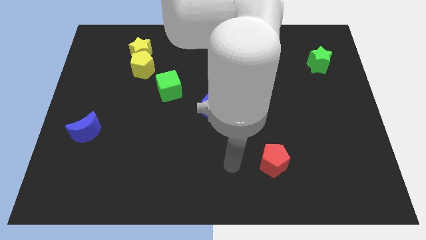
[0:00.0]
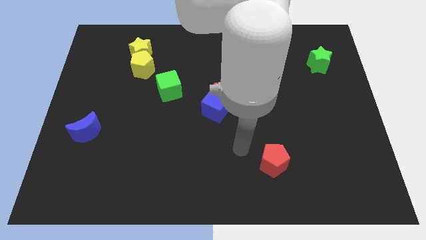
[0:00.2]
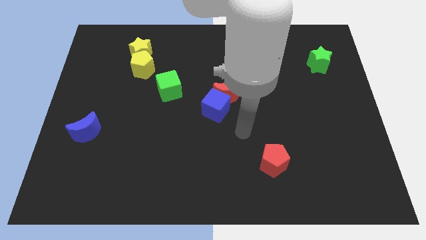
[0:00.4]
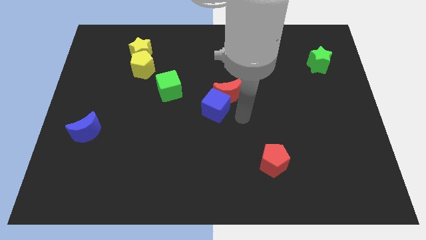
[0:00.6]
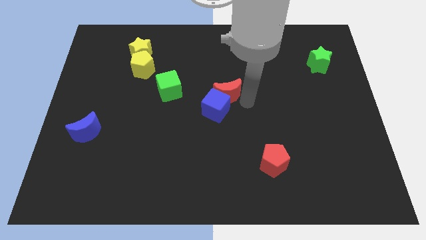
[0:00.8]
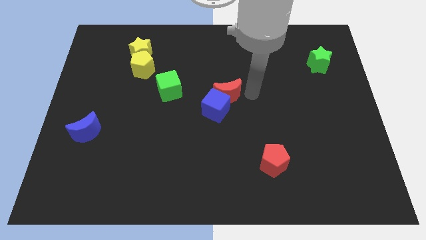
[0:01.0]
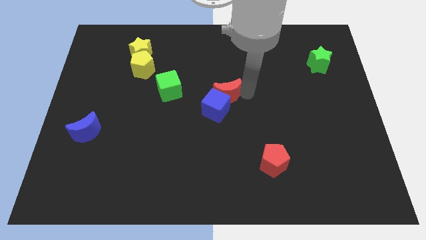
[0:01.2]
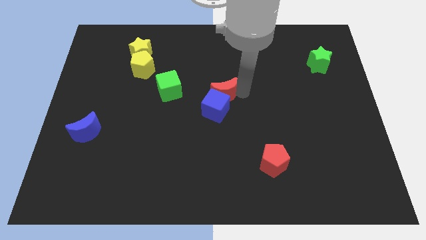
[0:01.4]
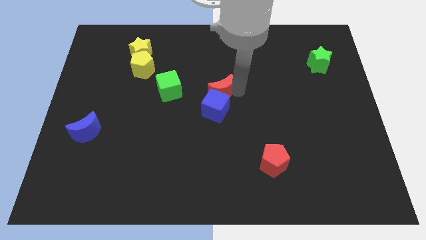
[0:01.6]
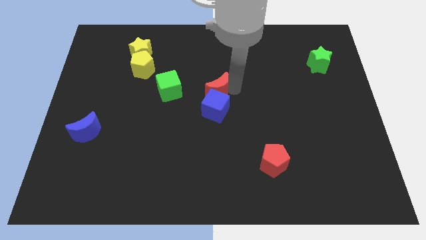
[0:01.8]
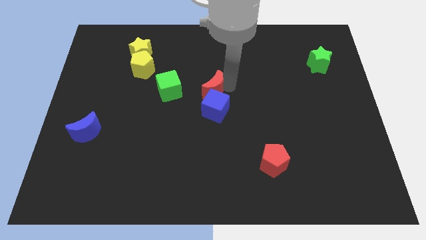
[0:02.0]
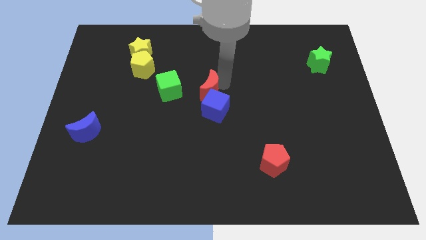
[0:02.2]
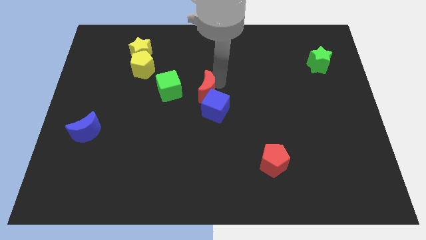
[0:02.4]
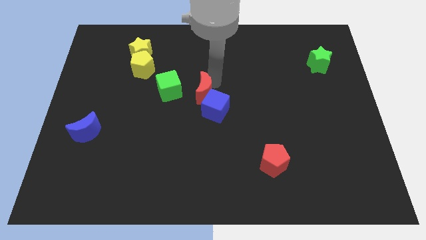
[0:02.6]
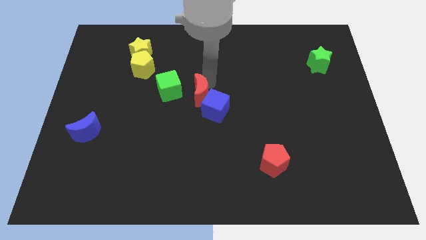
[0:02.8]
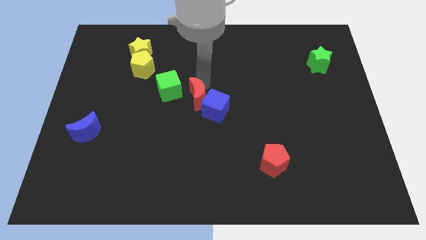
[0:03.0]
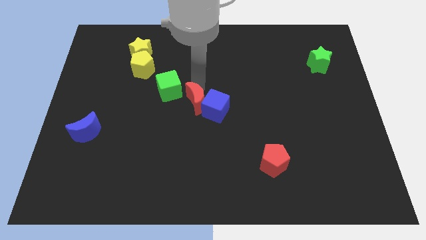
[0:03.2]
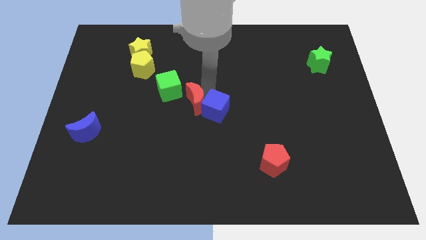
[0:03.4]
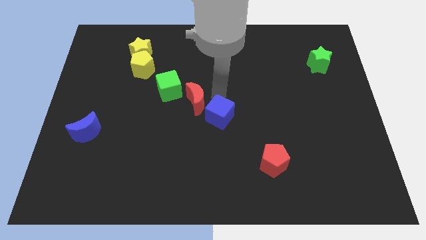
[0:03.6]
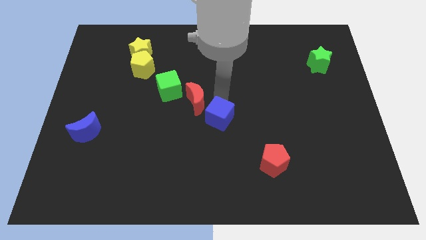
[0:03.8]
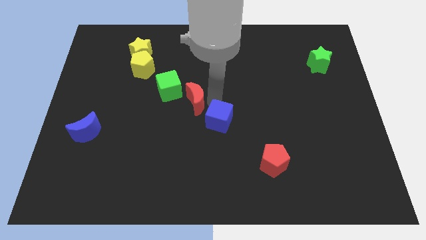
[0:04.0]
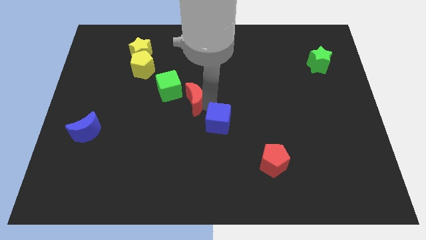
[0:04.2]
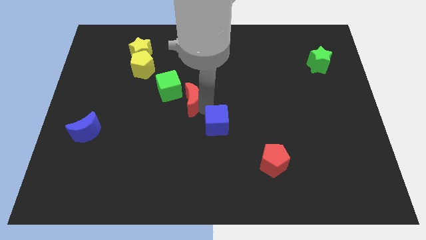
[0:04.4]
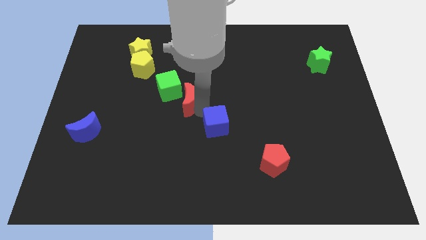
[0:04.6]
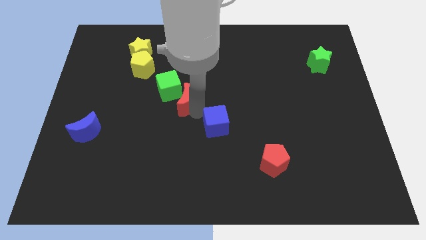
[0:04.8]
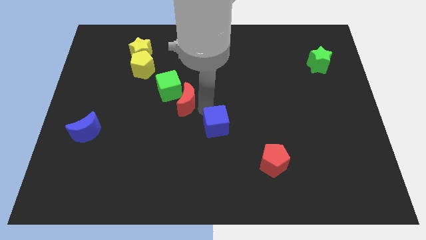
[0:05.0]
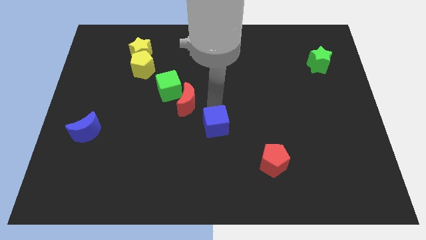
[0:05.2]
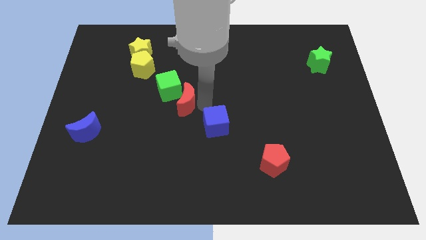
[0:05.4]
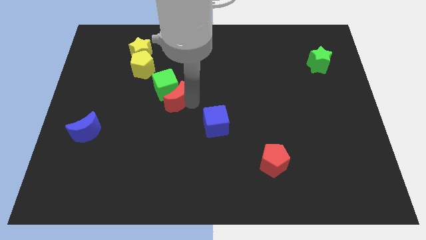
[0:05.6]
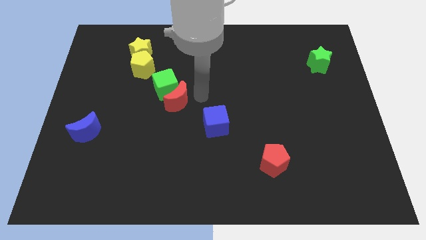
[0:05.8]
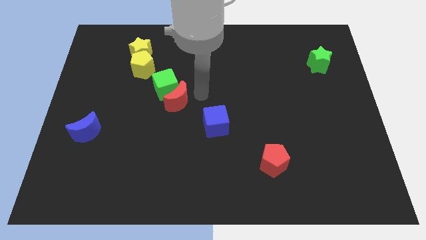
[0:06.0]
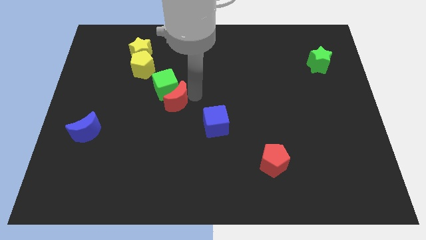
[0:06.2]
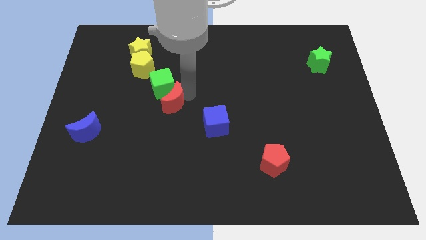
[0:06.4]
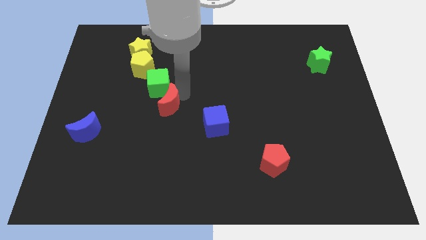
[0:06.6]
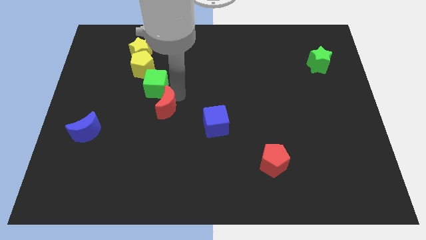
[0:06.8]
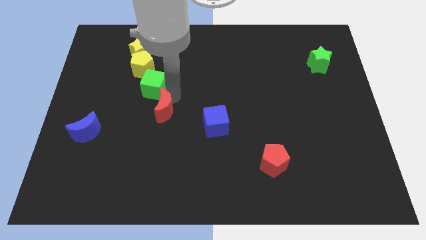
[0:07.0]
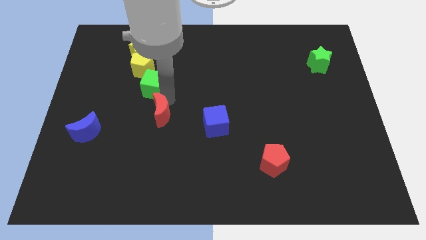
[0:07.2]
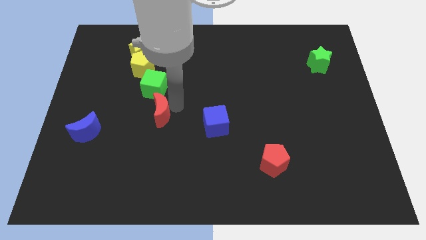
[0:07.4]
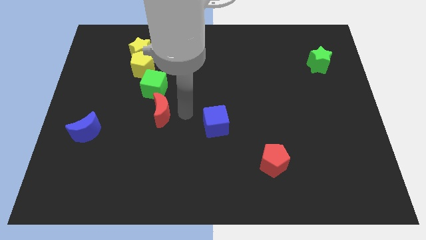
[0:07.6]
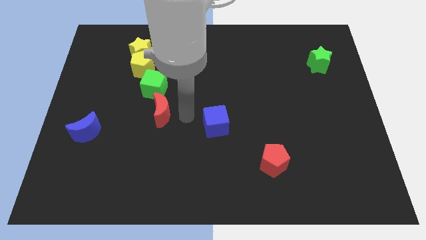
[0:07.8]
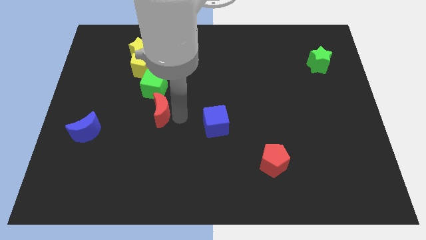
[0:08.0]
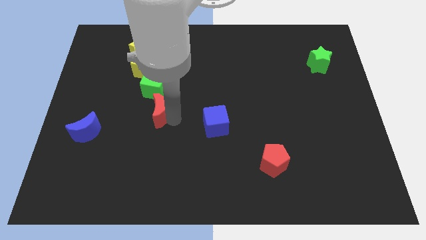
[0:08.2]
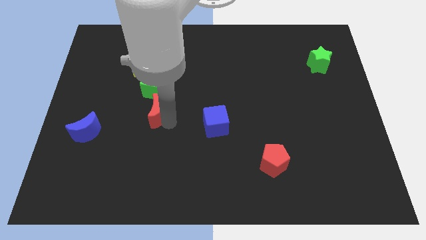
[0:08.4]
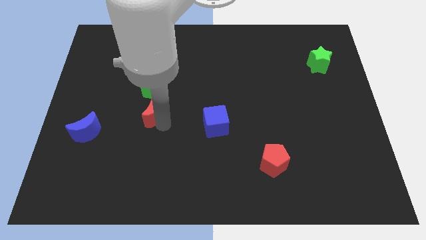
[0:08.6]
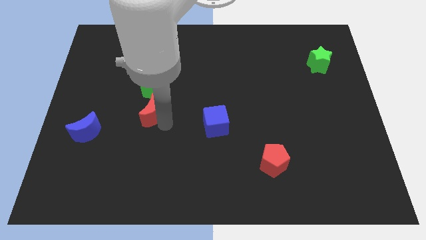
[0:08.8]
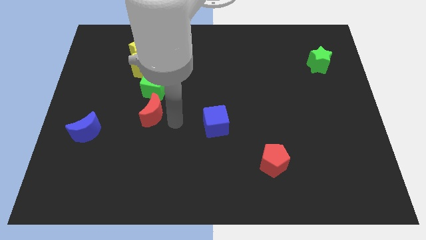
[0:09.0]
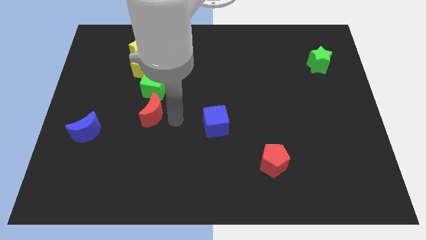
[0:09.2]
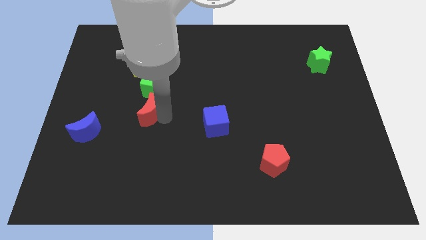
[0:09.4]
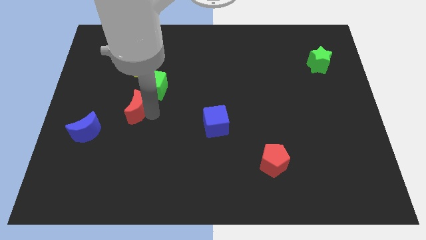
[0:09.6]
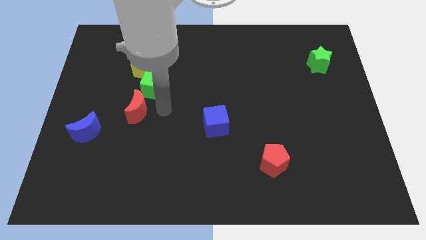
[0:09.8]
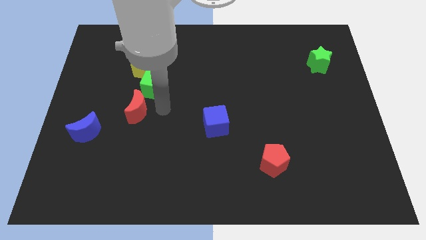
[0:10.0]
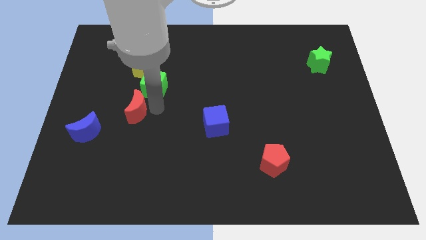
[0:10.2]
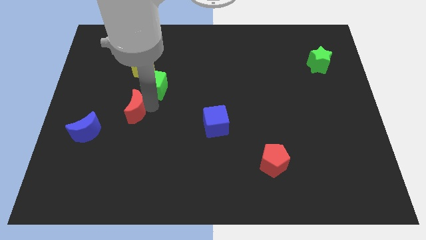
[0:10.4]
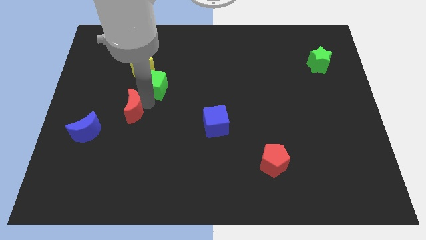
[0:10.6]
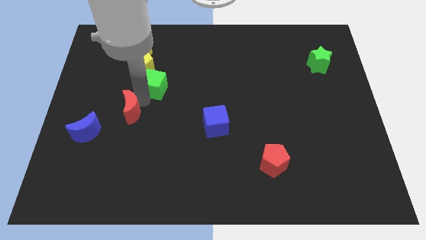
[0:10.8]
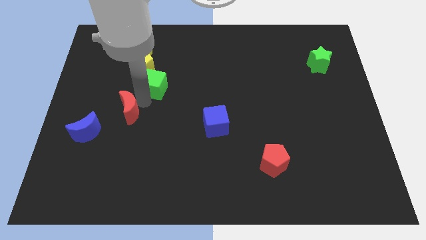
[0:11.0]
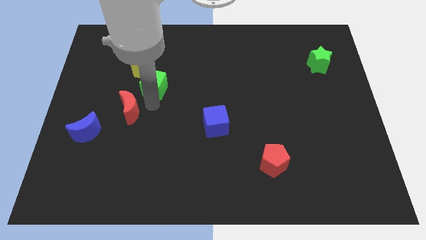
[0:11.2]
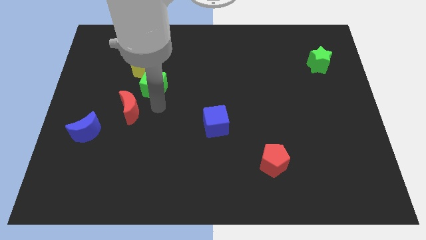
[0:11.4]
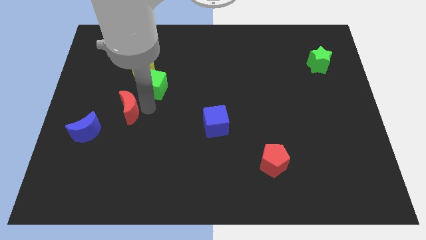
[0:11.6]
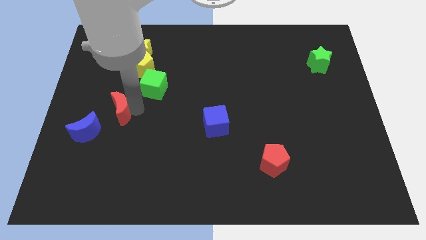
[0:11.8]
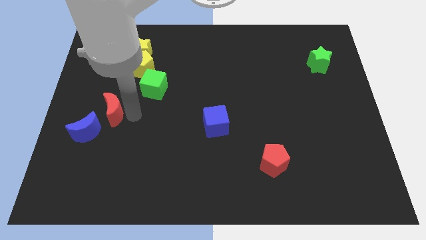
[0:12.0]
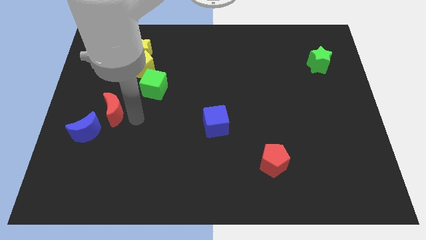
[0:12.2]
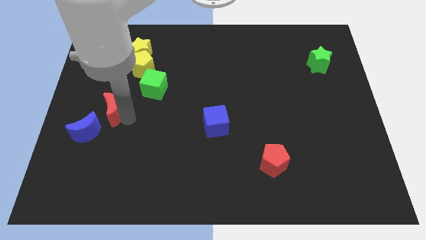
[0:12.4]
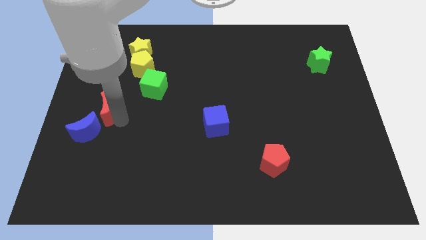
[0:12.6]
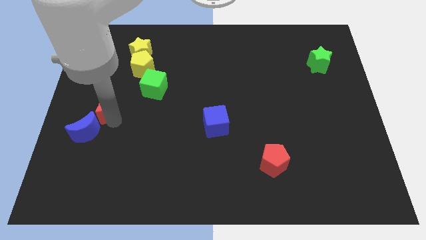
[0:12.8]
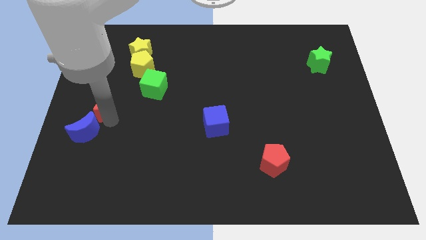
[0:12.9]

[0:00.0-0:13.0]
put the red moon to the left side
